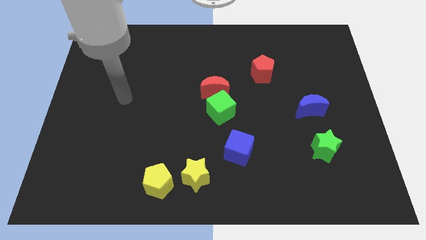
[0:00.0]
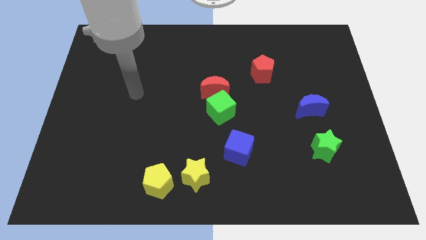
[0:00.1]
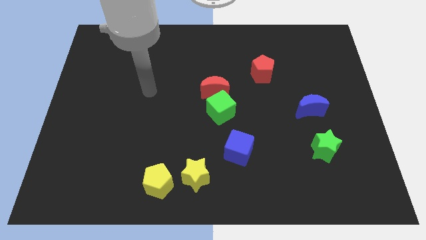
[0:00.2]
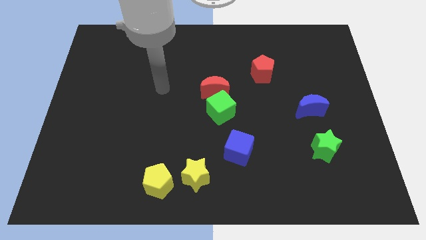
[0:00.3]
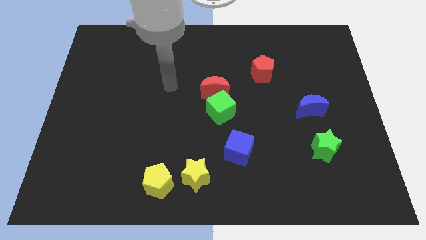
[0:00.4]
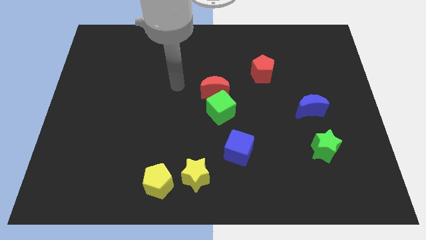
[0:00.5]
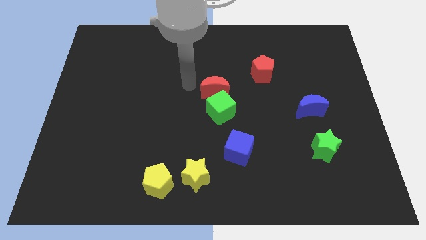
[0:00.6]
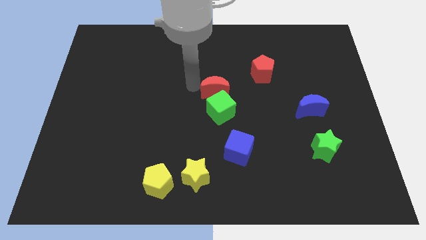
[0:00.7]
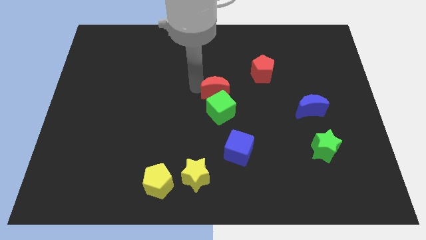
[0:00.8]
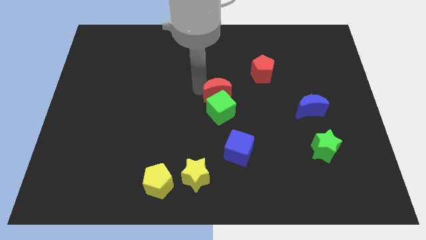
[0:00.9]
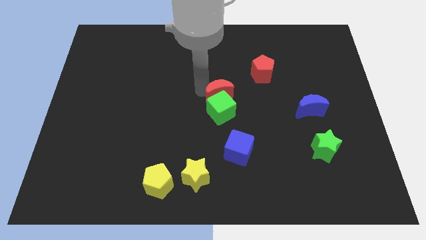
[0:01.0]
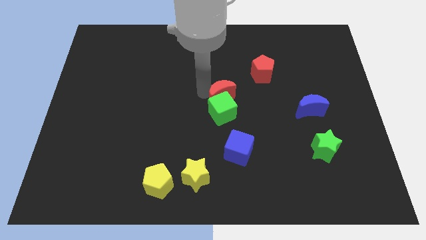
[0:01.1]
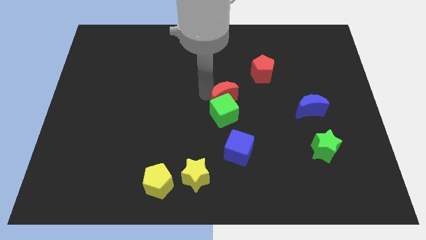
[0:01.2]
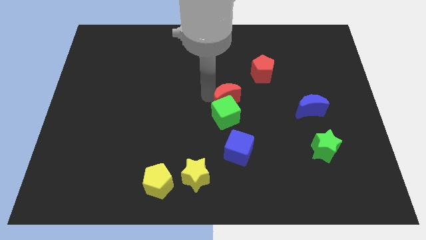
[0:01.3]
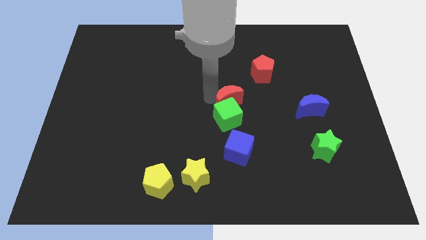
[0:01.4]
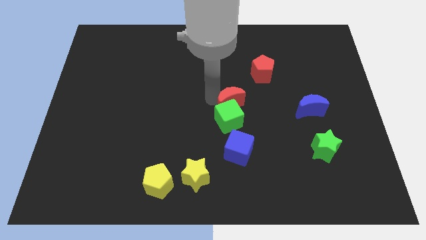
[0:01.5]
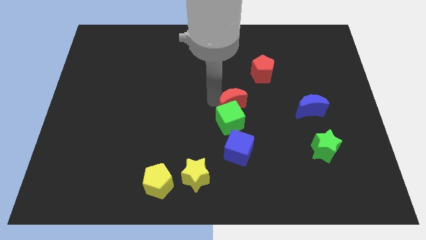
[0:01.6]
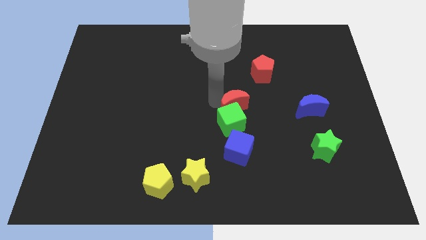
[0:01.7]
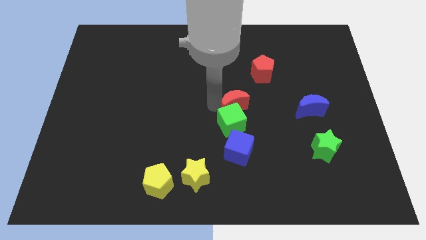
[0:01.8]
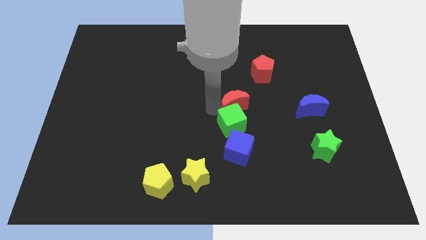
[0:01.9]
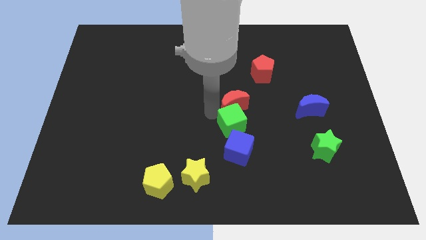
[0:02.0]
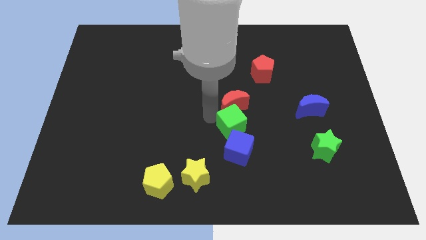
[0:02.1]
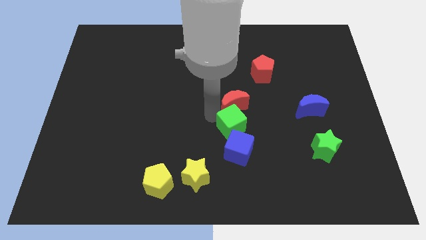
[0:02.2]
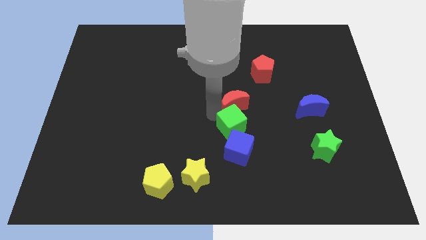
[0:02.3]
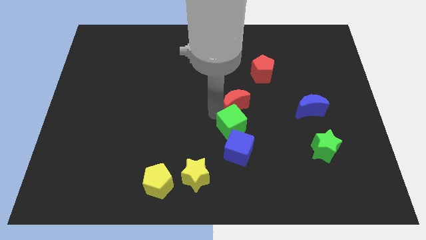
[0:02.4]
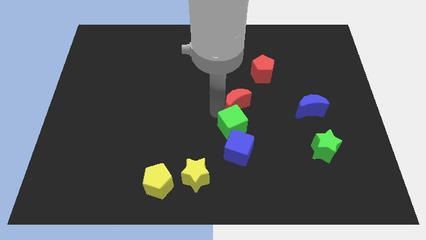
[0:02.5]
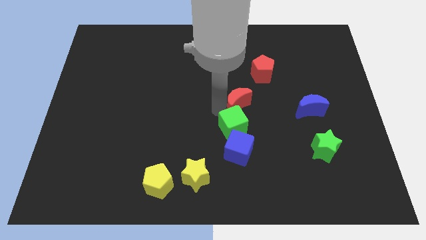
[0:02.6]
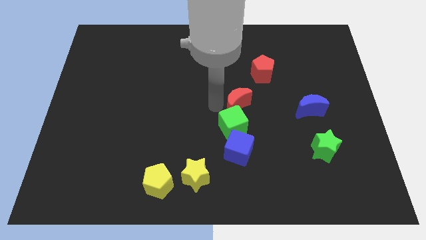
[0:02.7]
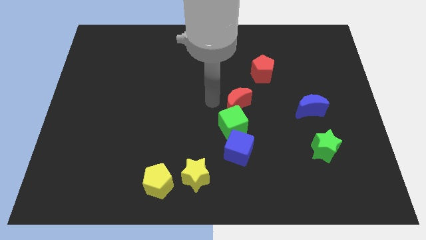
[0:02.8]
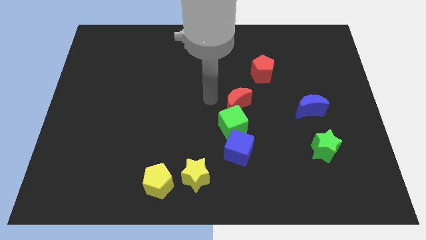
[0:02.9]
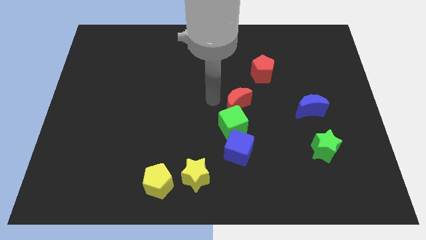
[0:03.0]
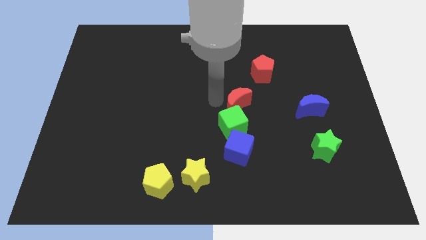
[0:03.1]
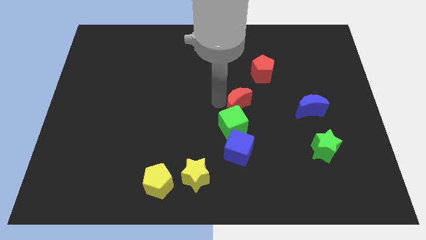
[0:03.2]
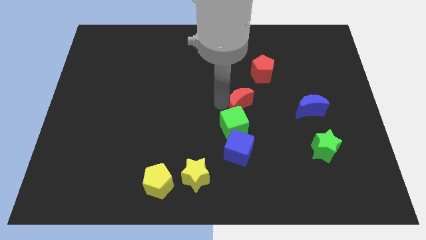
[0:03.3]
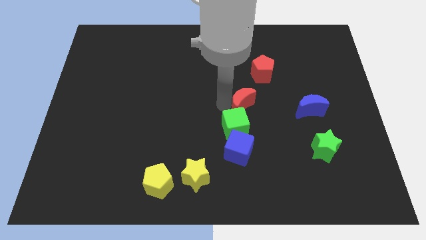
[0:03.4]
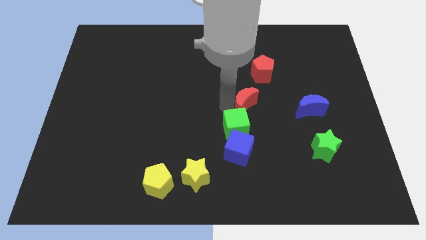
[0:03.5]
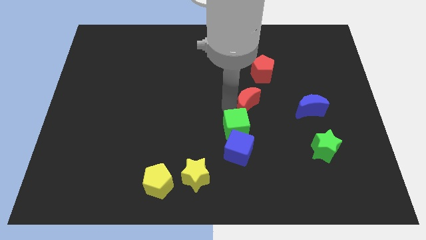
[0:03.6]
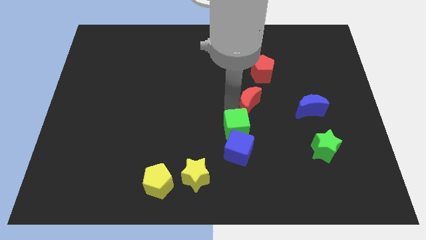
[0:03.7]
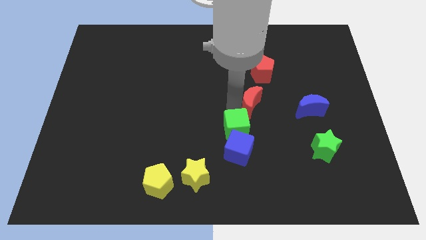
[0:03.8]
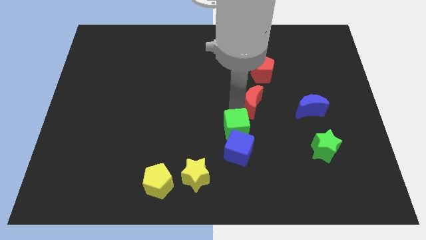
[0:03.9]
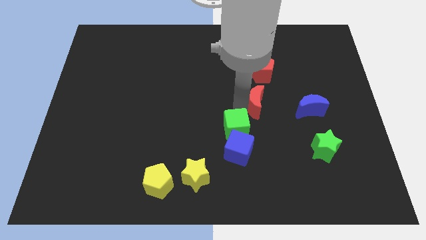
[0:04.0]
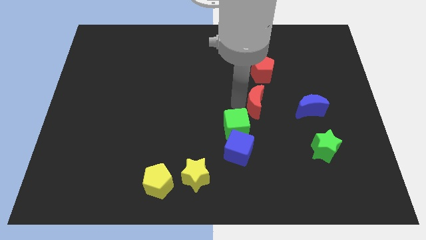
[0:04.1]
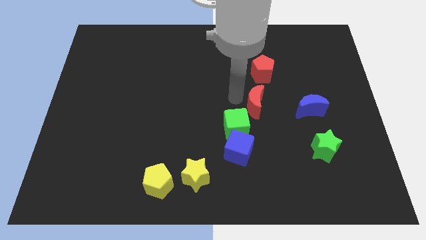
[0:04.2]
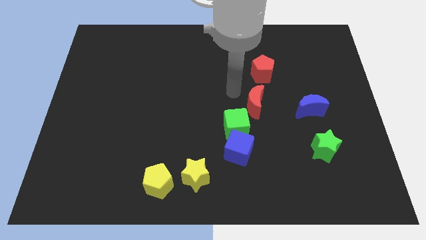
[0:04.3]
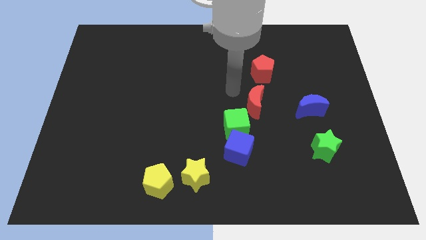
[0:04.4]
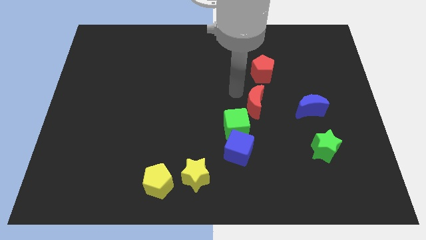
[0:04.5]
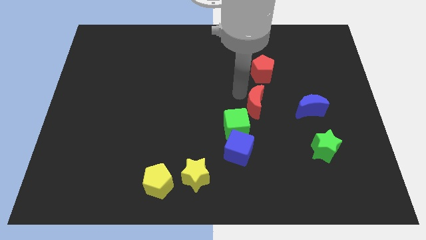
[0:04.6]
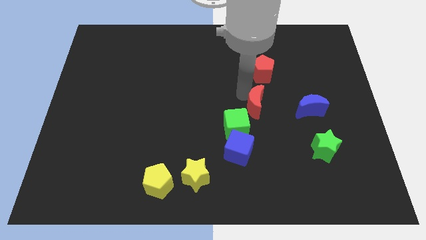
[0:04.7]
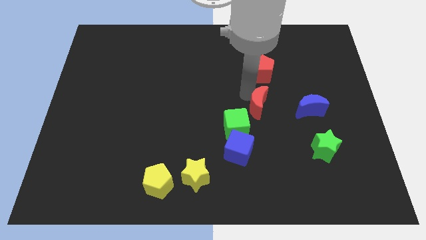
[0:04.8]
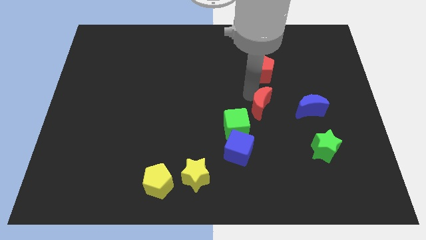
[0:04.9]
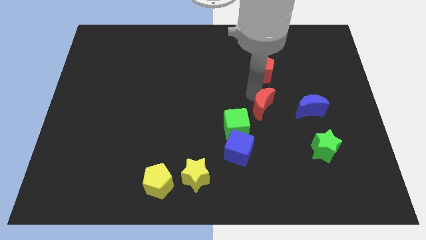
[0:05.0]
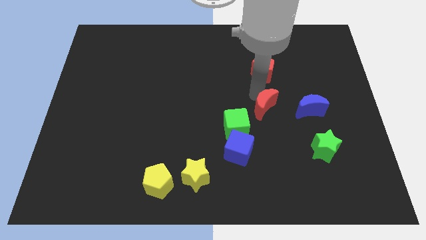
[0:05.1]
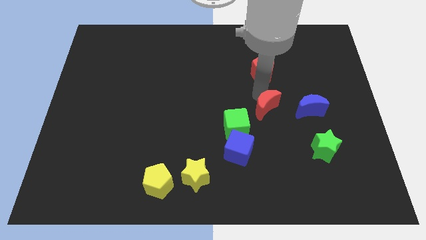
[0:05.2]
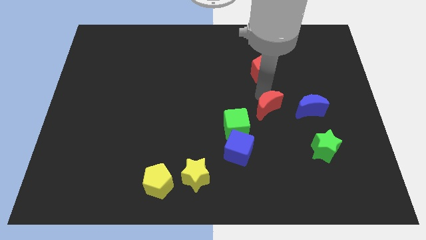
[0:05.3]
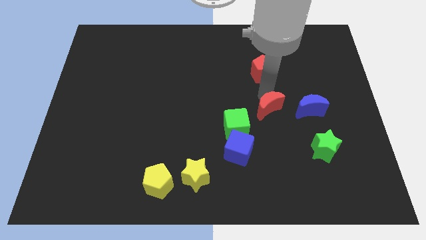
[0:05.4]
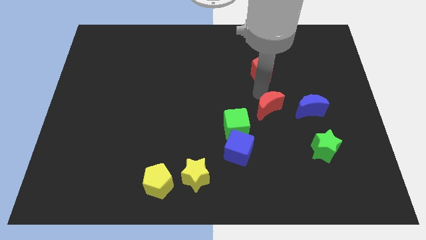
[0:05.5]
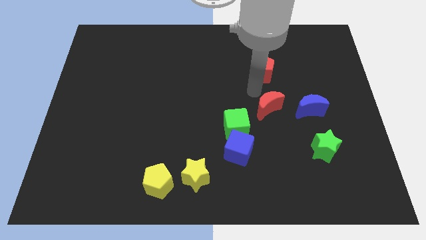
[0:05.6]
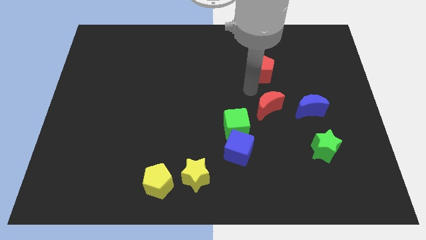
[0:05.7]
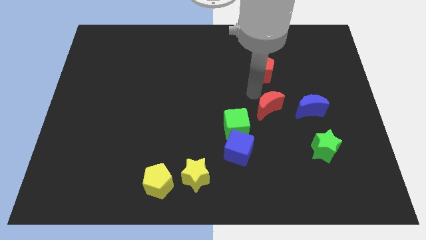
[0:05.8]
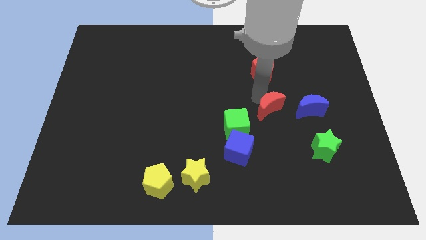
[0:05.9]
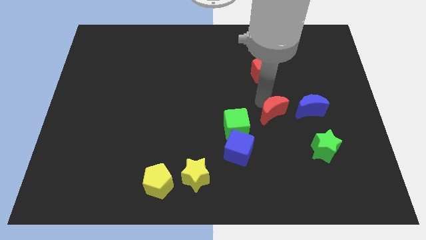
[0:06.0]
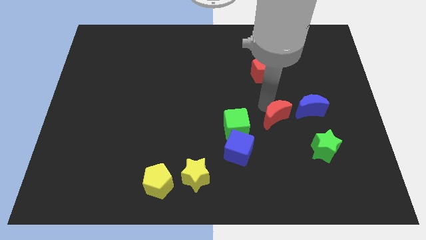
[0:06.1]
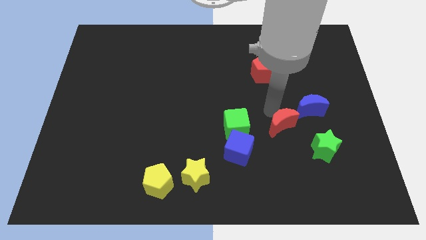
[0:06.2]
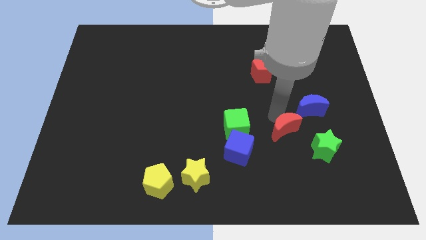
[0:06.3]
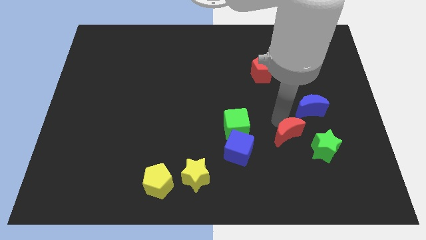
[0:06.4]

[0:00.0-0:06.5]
slide the red moon downwards and right diagonally

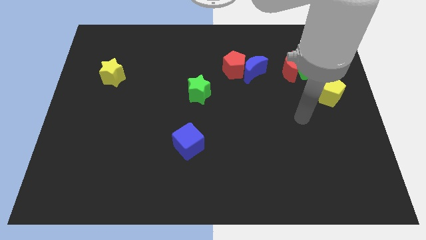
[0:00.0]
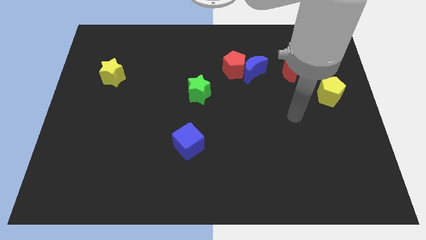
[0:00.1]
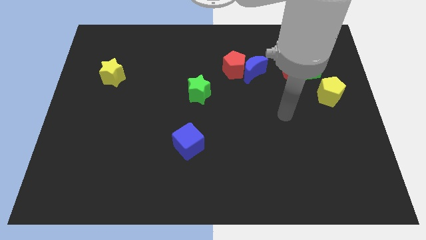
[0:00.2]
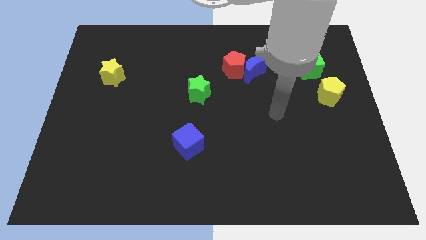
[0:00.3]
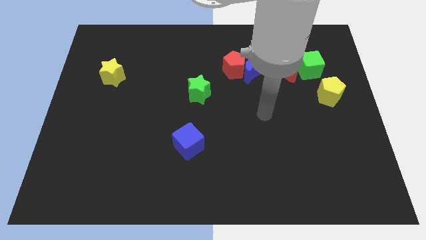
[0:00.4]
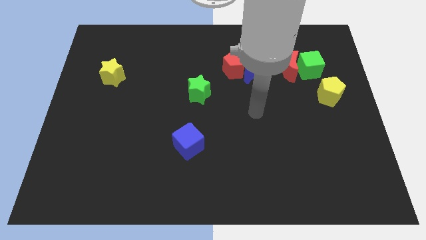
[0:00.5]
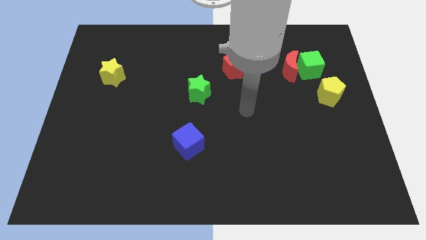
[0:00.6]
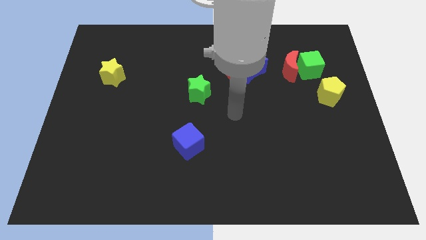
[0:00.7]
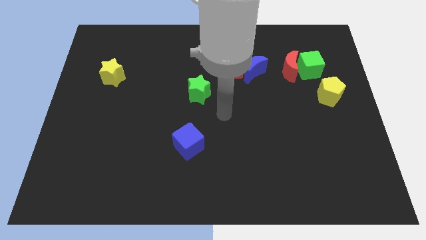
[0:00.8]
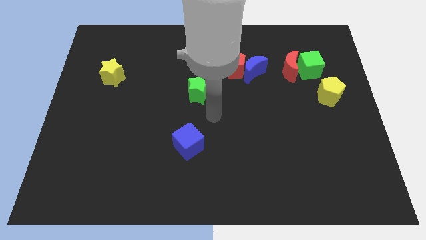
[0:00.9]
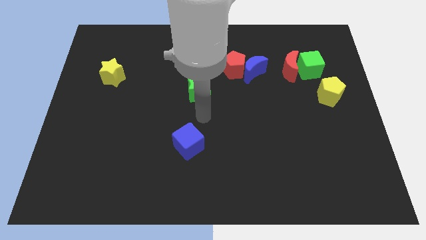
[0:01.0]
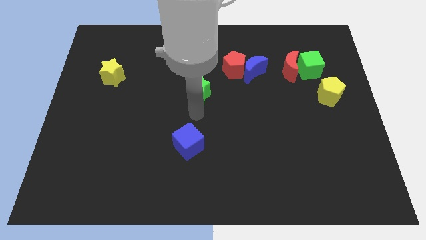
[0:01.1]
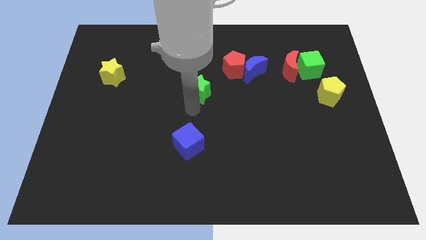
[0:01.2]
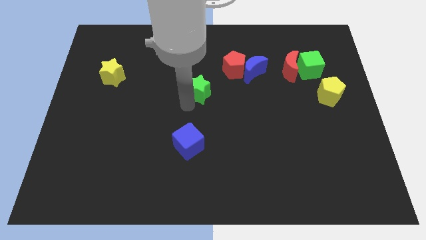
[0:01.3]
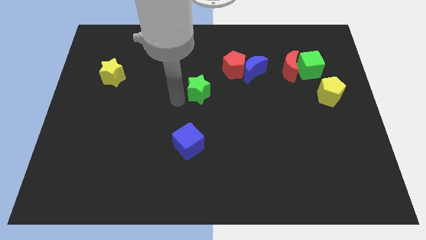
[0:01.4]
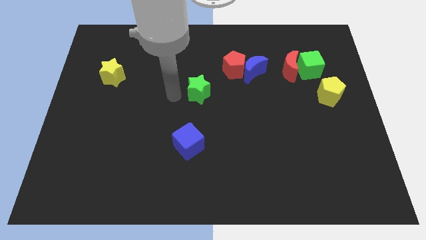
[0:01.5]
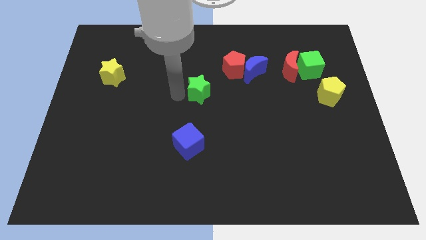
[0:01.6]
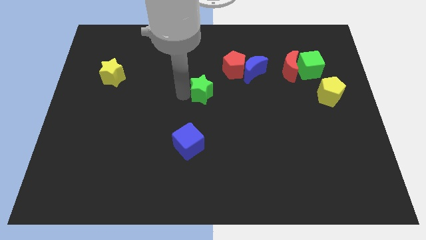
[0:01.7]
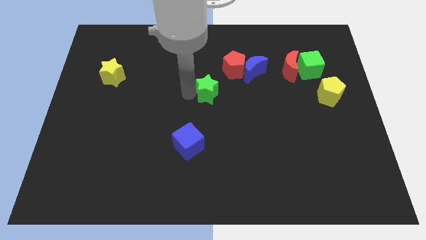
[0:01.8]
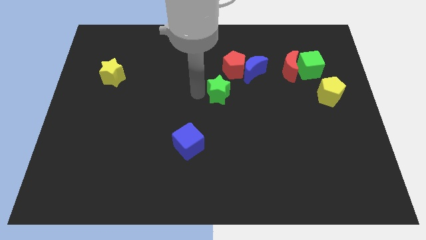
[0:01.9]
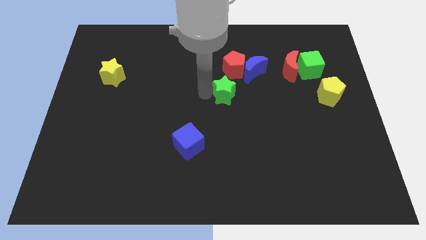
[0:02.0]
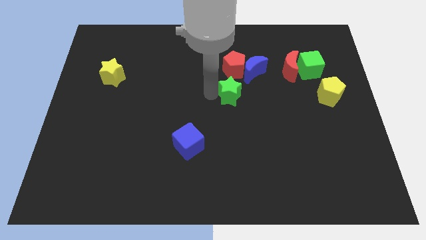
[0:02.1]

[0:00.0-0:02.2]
push the green star to the right a bit
